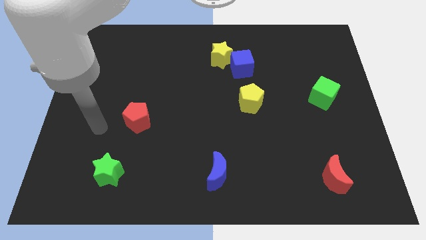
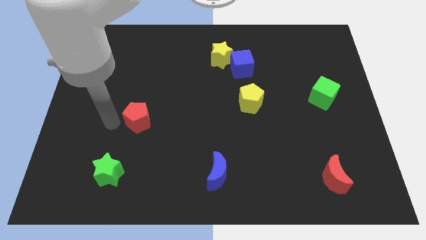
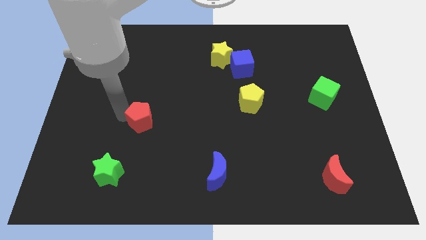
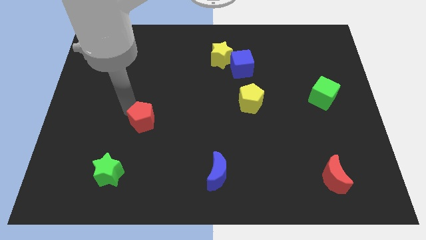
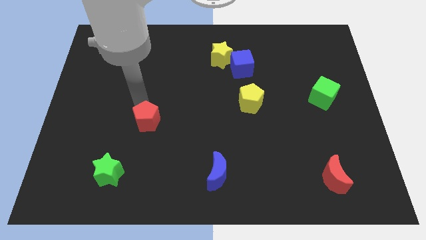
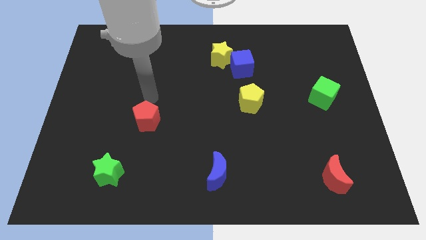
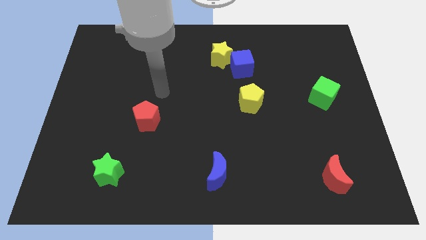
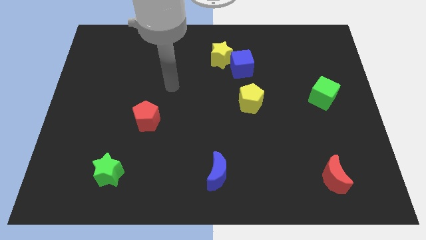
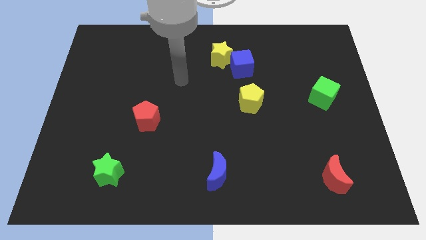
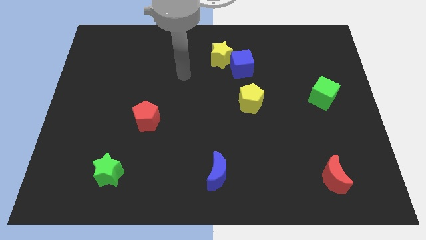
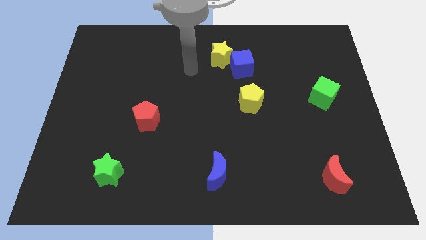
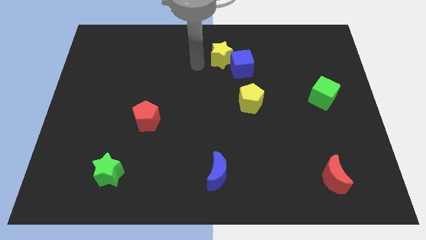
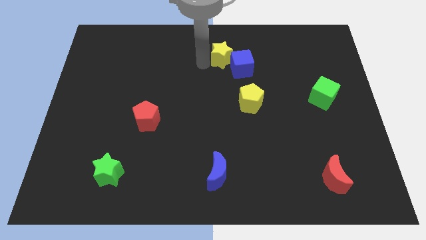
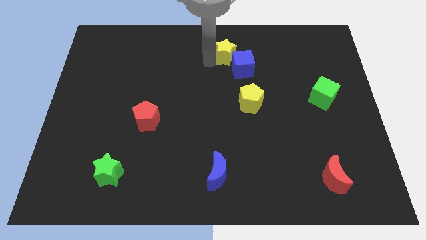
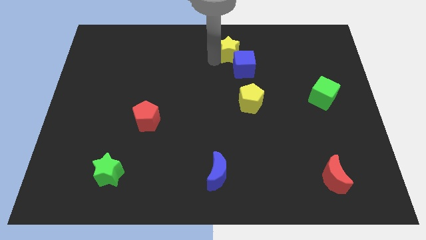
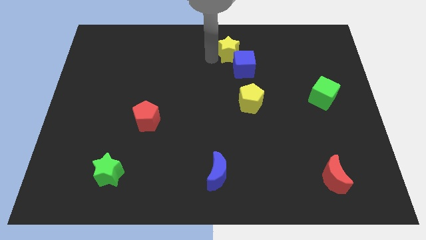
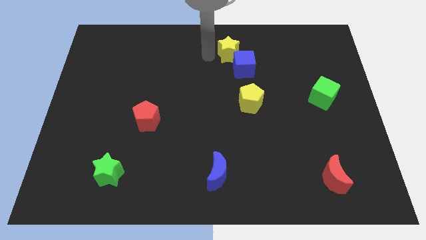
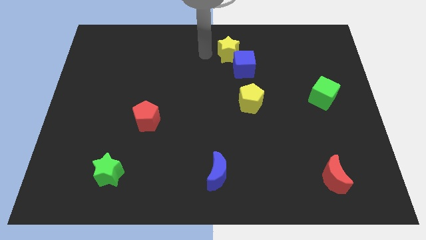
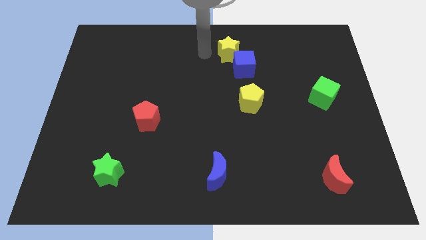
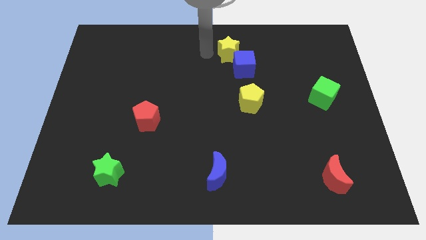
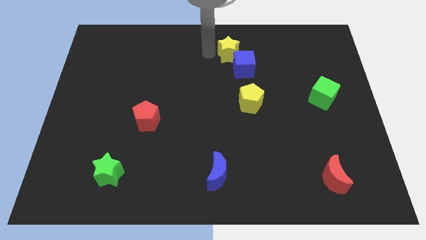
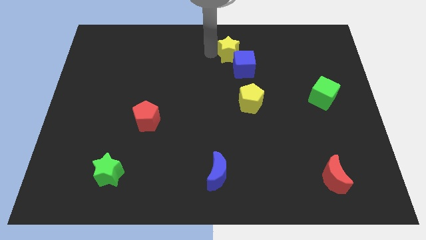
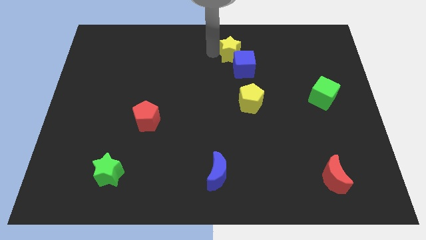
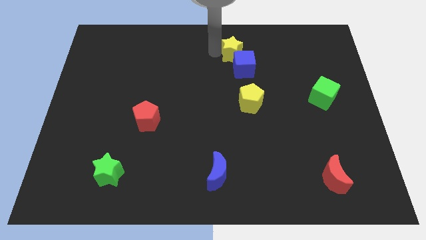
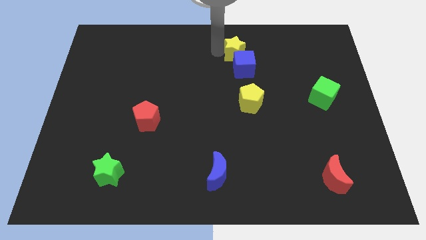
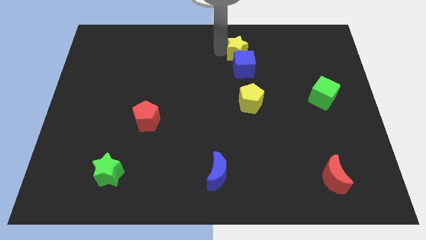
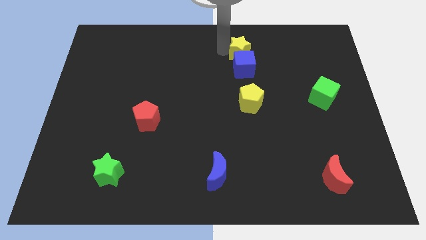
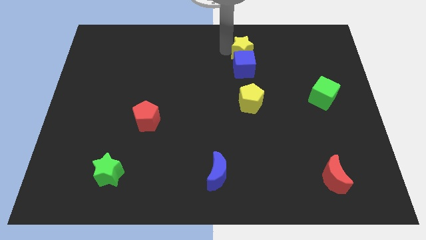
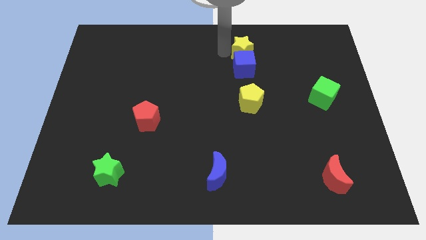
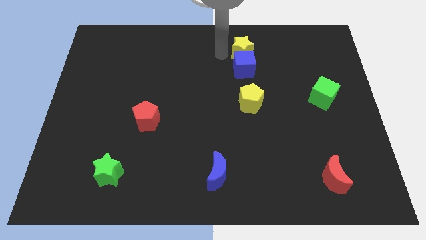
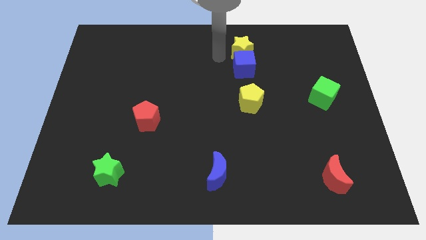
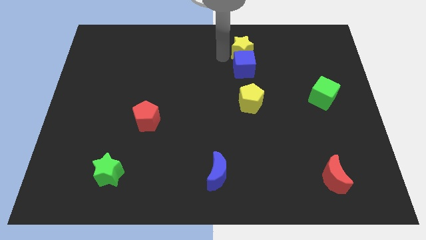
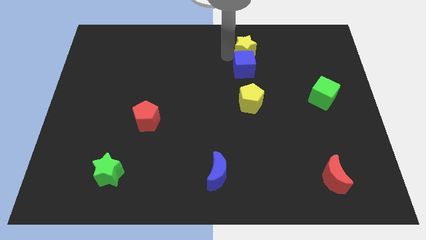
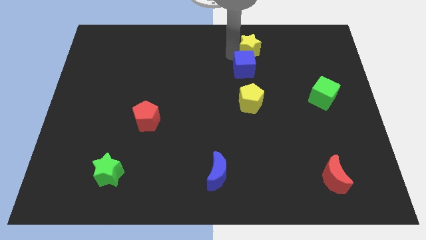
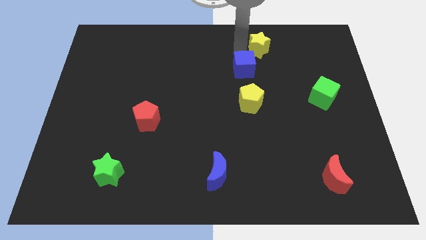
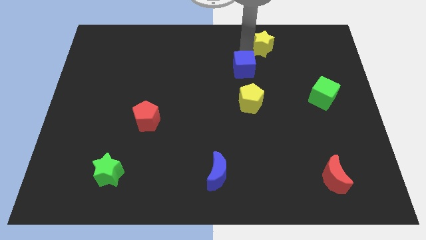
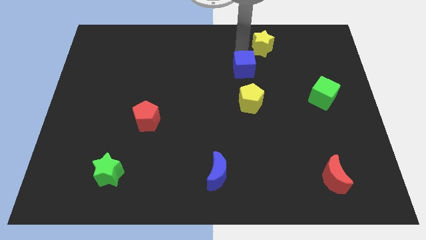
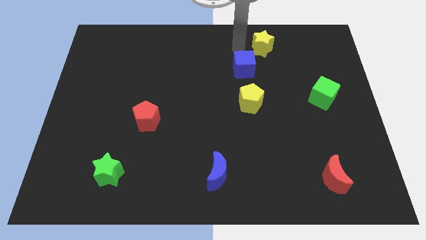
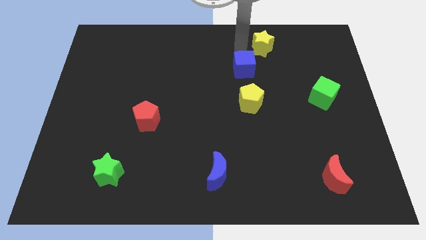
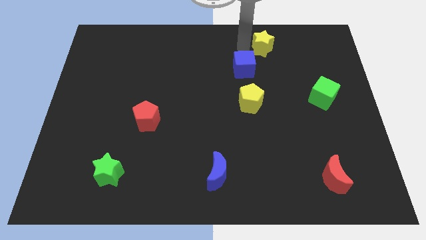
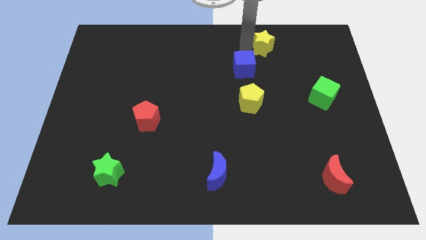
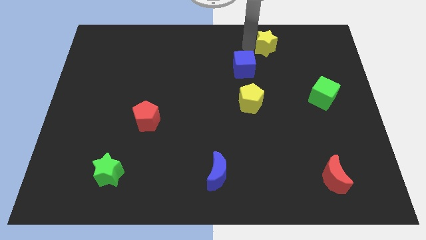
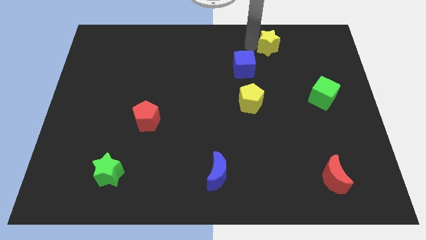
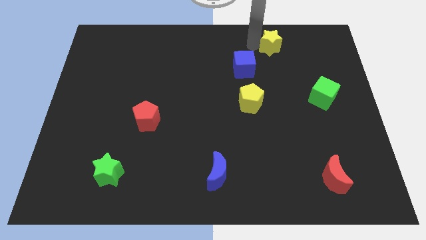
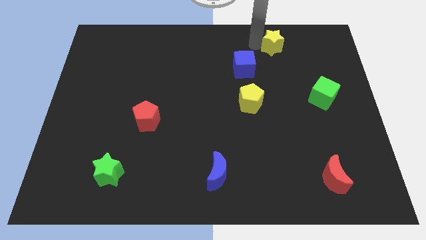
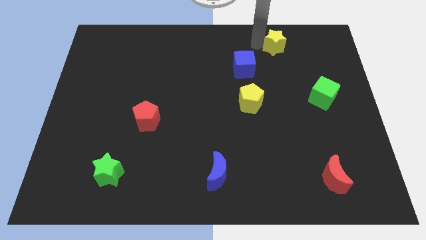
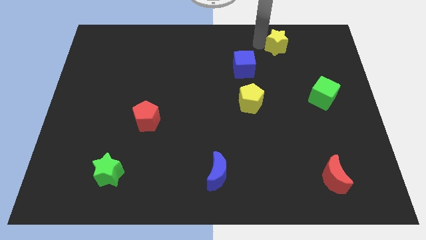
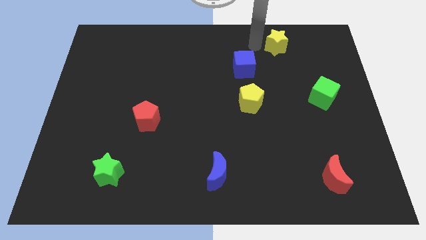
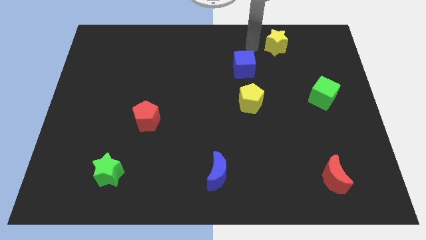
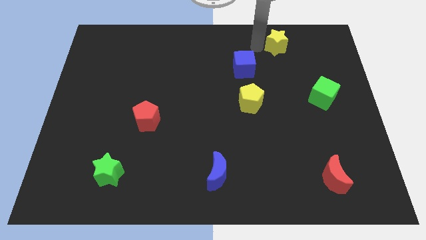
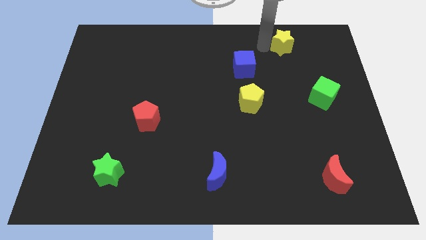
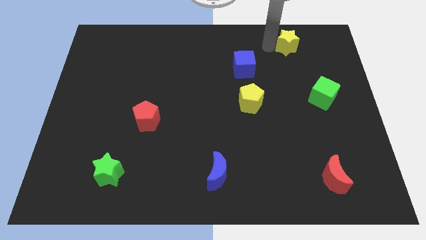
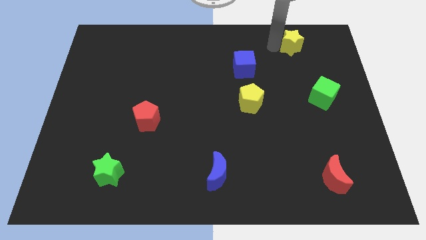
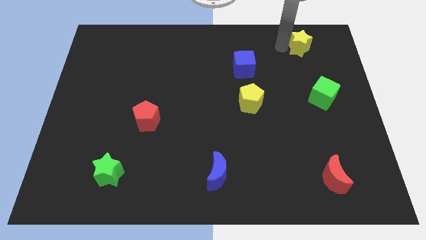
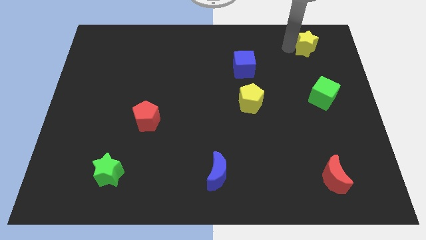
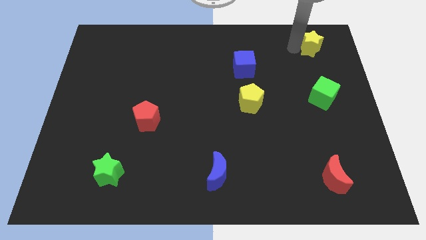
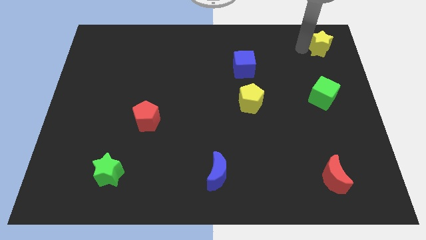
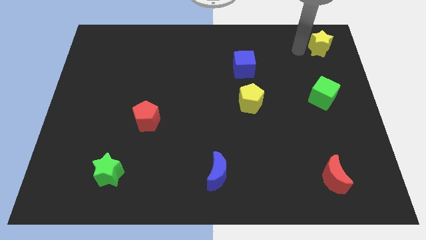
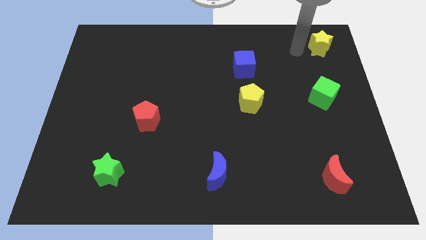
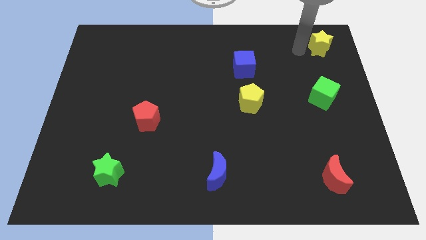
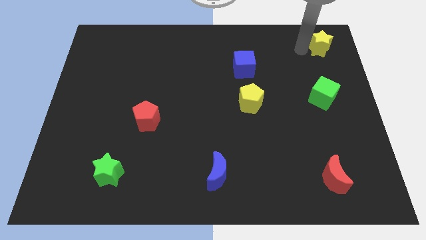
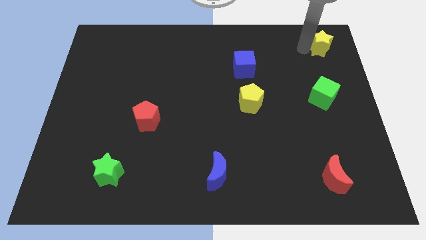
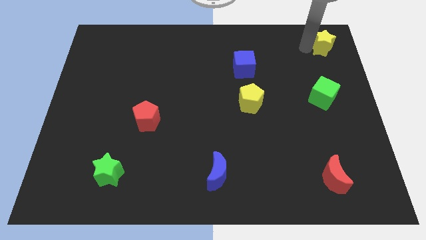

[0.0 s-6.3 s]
slide the yellow star to the upper right corner
